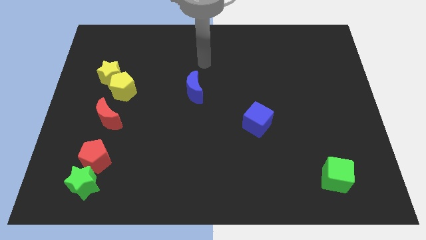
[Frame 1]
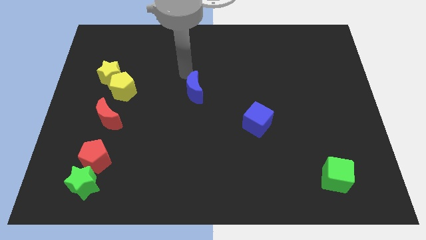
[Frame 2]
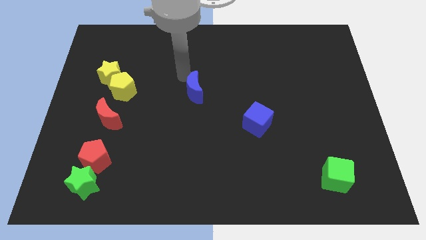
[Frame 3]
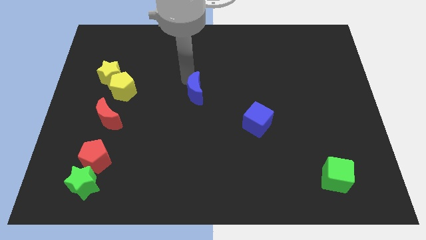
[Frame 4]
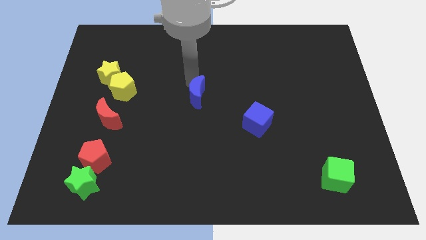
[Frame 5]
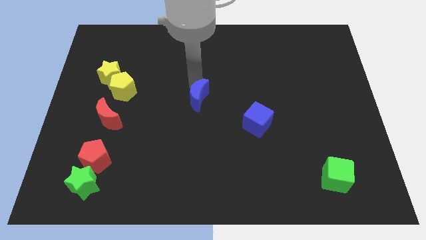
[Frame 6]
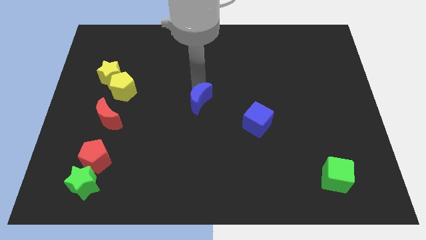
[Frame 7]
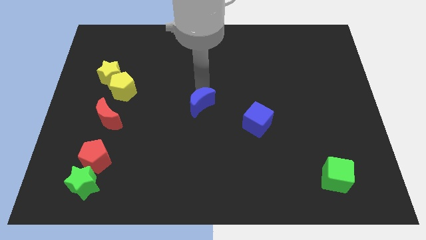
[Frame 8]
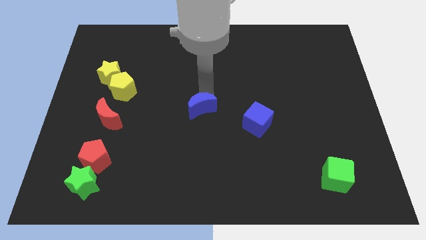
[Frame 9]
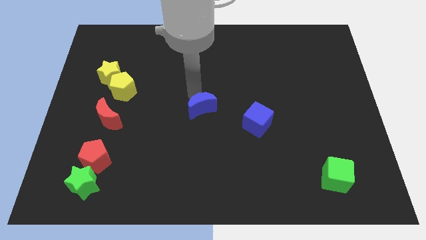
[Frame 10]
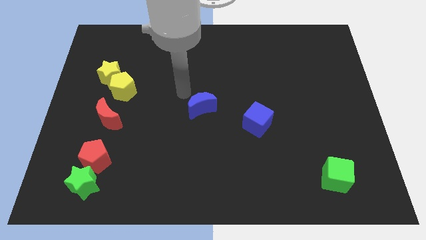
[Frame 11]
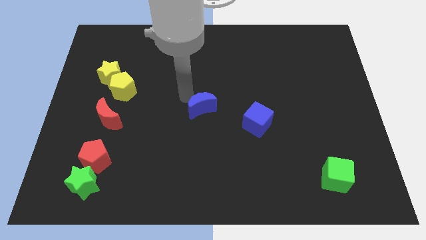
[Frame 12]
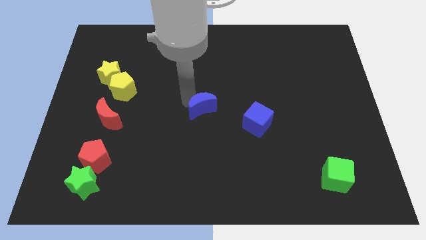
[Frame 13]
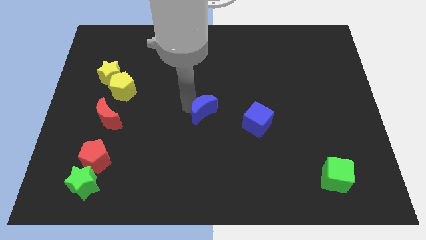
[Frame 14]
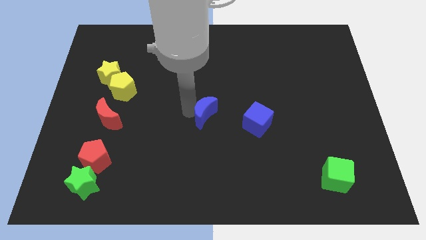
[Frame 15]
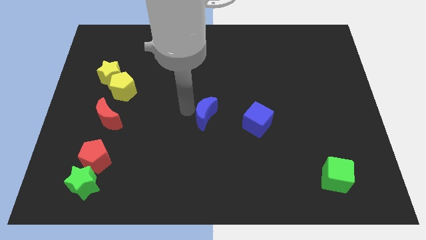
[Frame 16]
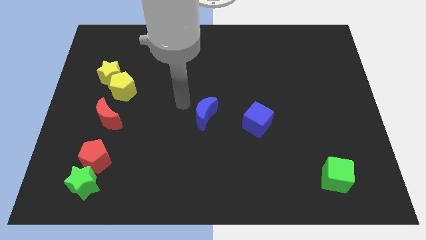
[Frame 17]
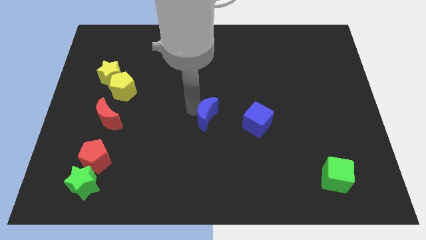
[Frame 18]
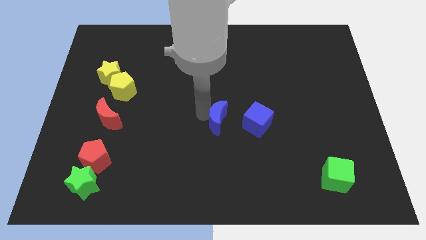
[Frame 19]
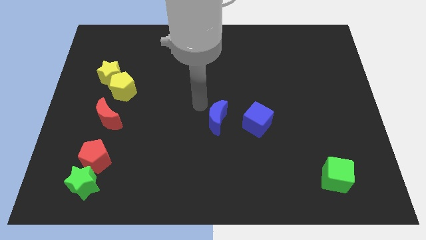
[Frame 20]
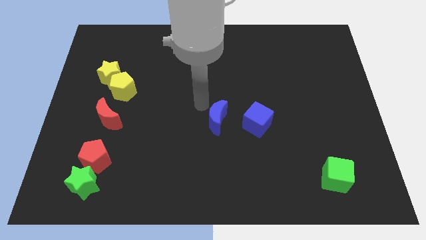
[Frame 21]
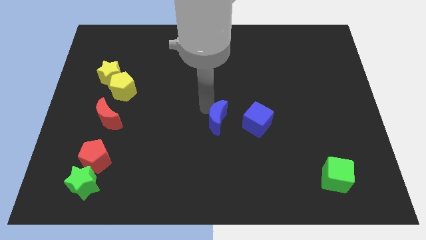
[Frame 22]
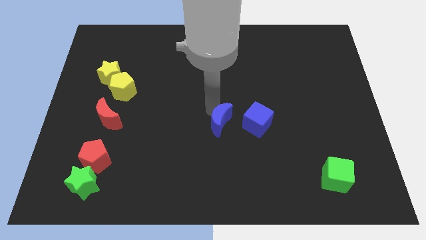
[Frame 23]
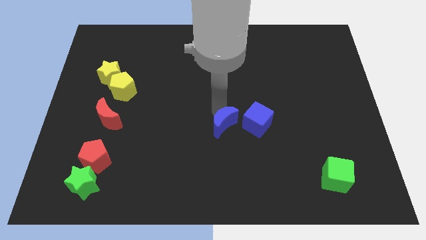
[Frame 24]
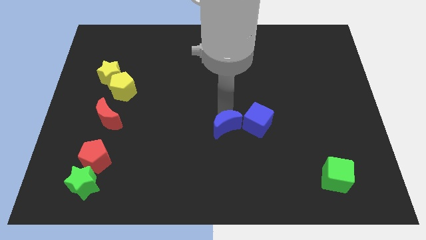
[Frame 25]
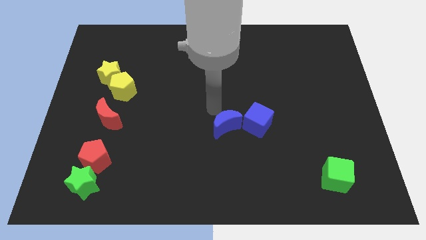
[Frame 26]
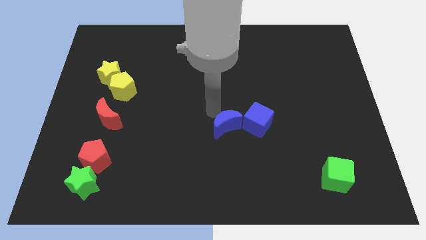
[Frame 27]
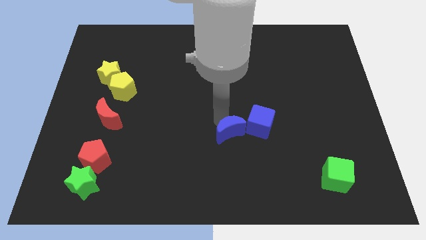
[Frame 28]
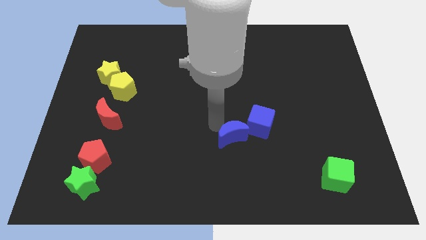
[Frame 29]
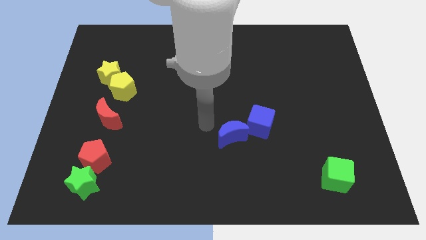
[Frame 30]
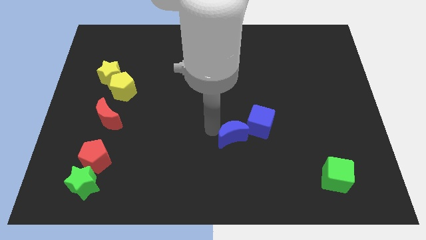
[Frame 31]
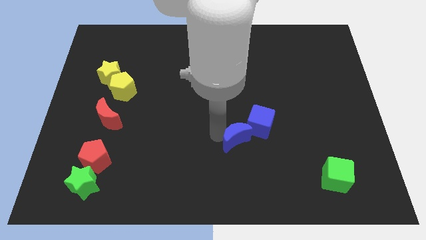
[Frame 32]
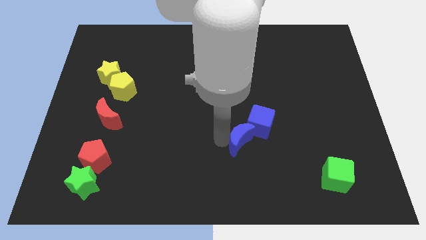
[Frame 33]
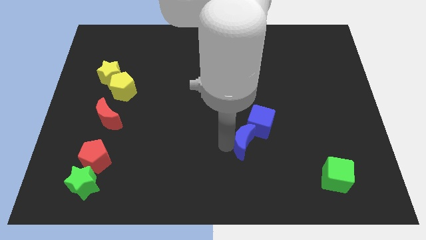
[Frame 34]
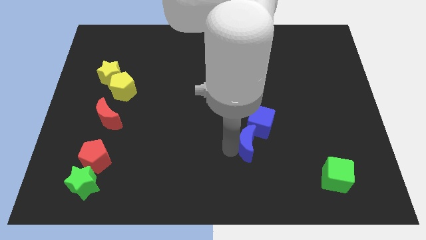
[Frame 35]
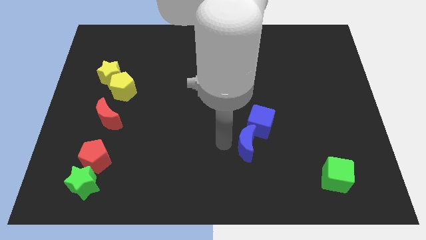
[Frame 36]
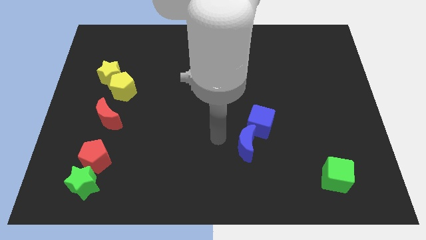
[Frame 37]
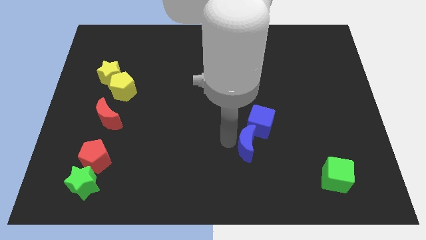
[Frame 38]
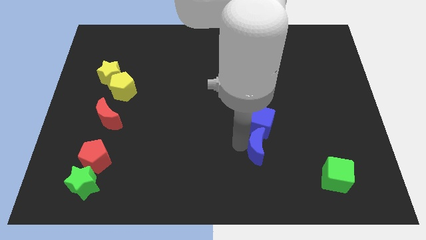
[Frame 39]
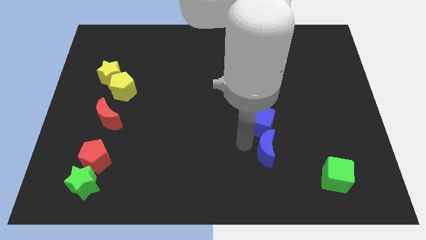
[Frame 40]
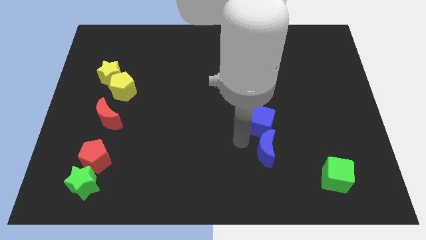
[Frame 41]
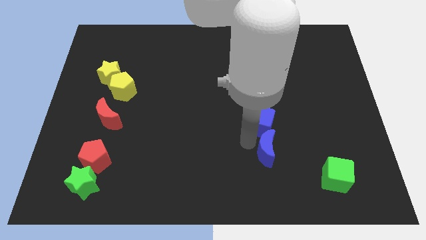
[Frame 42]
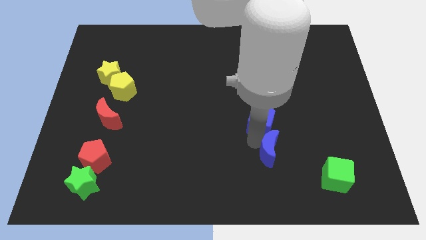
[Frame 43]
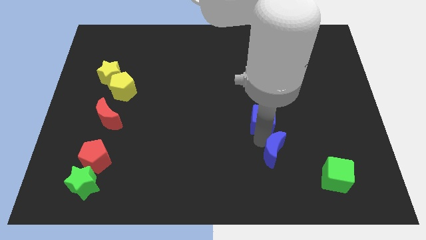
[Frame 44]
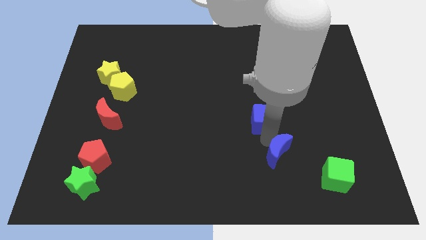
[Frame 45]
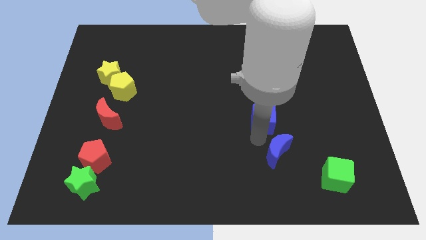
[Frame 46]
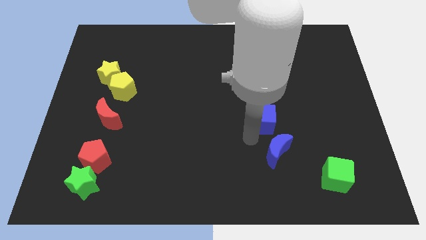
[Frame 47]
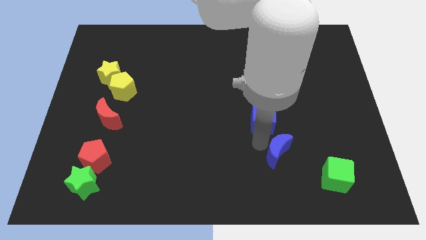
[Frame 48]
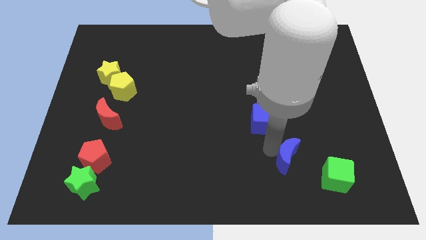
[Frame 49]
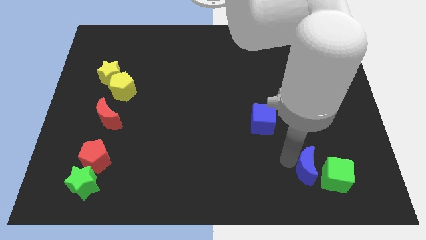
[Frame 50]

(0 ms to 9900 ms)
push the blue moon towards the green cube

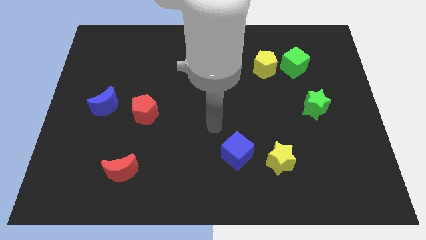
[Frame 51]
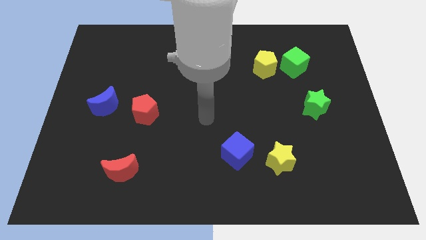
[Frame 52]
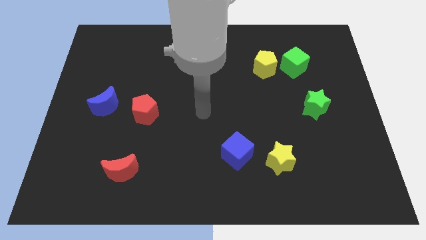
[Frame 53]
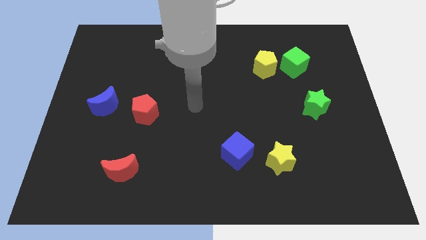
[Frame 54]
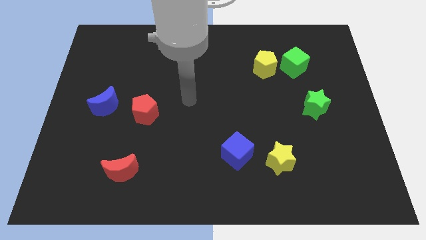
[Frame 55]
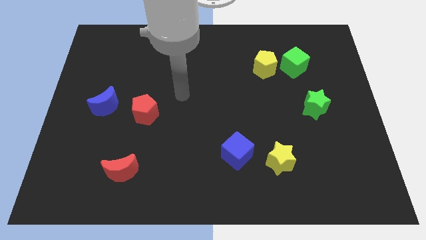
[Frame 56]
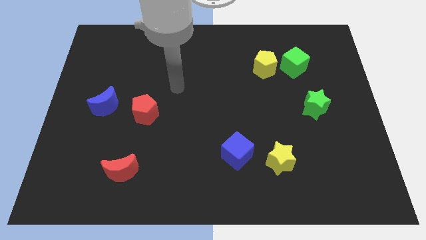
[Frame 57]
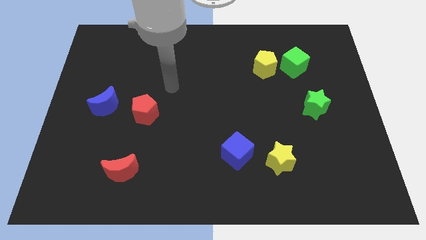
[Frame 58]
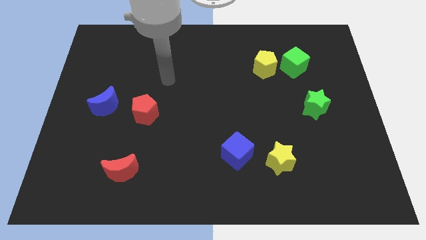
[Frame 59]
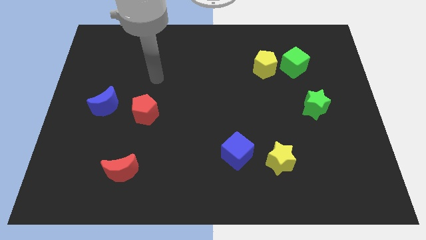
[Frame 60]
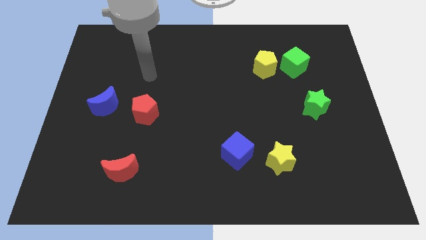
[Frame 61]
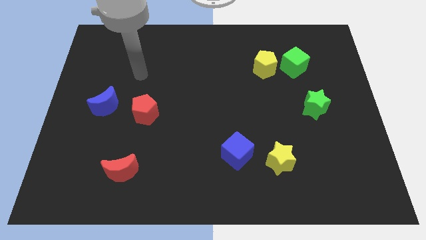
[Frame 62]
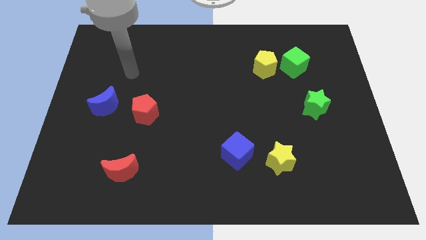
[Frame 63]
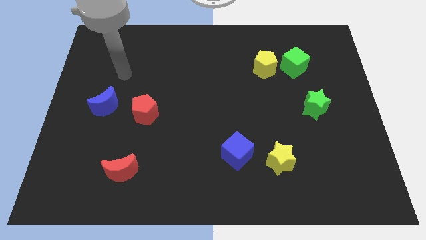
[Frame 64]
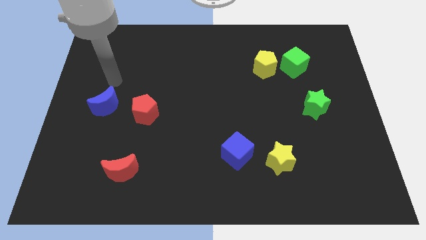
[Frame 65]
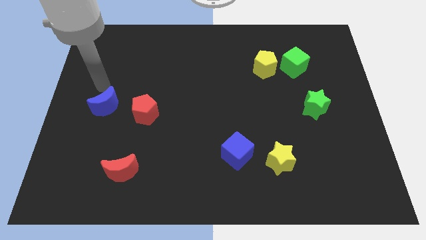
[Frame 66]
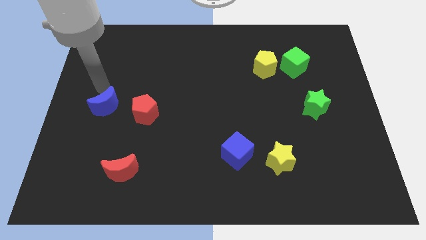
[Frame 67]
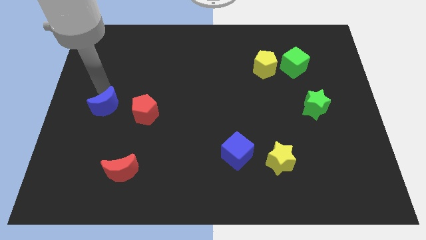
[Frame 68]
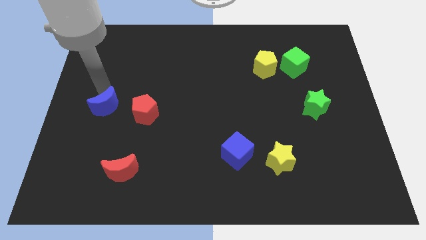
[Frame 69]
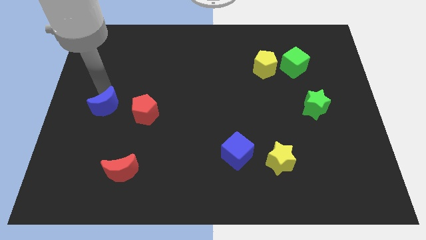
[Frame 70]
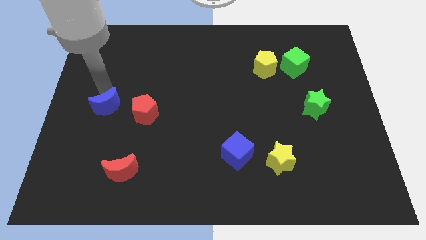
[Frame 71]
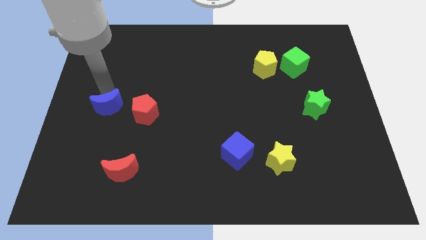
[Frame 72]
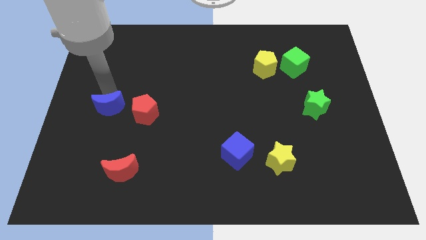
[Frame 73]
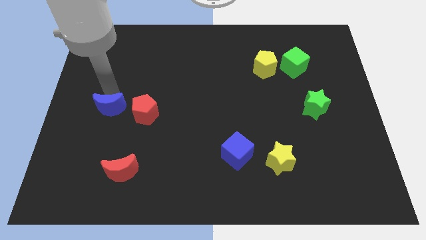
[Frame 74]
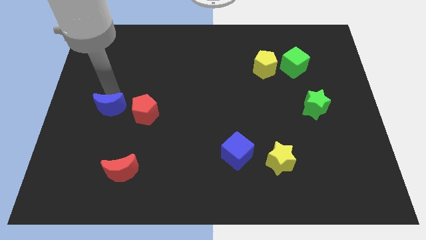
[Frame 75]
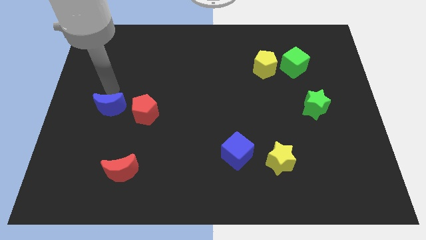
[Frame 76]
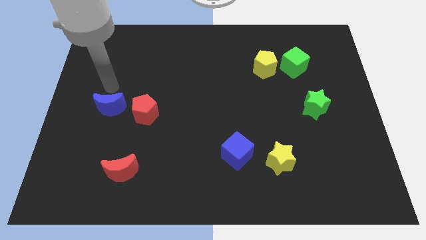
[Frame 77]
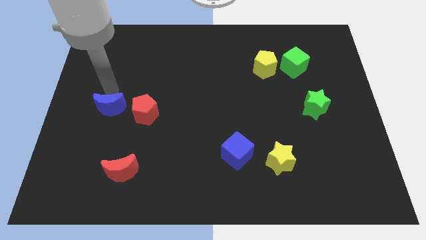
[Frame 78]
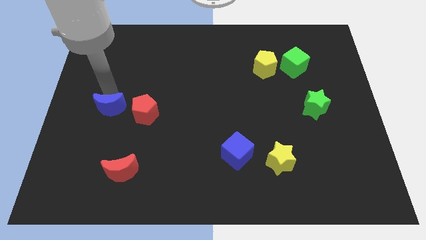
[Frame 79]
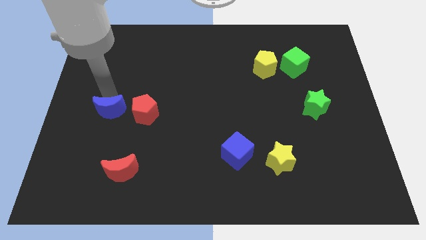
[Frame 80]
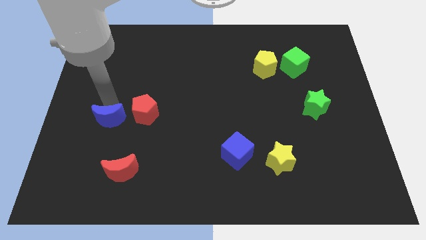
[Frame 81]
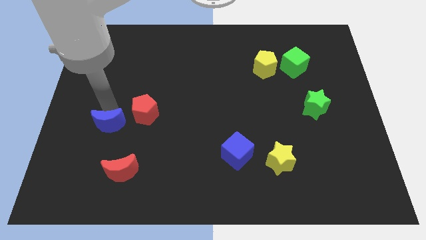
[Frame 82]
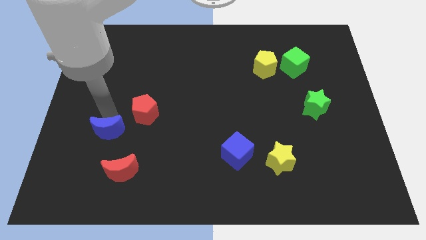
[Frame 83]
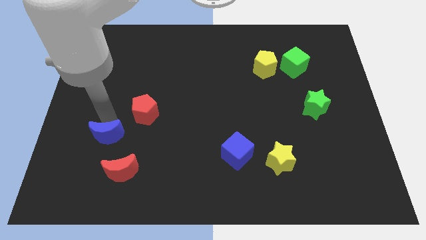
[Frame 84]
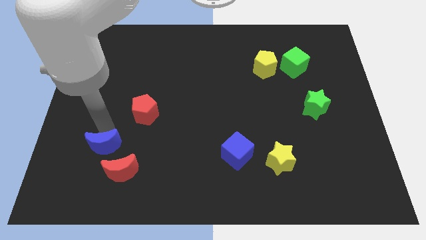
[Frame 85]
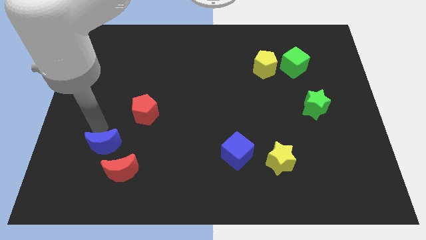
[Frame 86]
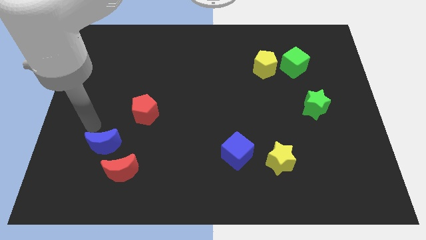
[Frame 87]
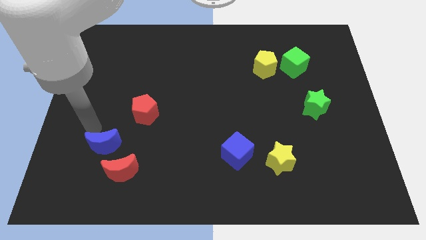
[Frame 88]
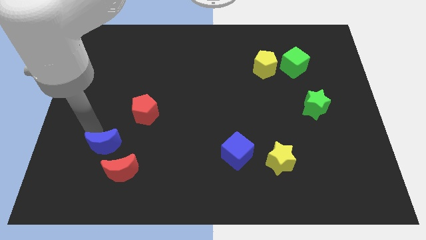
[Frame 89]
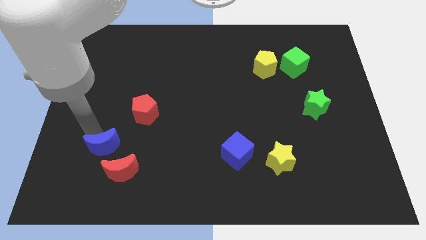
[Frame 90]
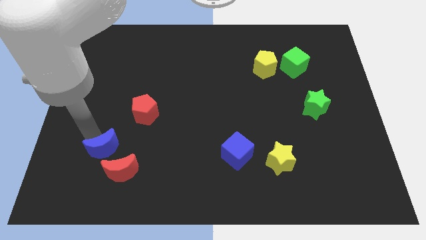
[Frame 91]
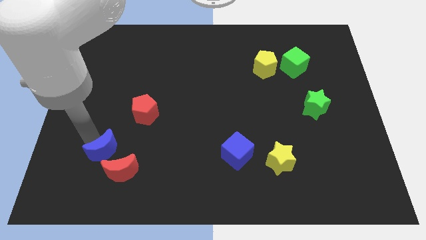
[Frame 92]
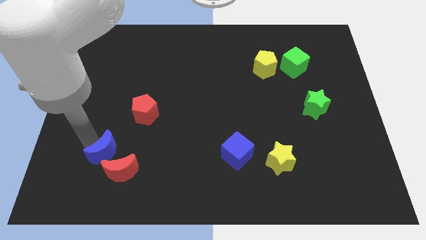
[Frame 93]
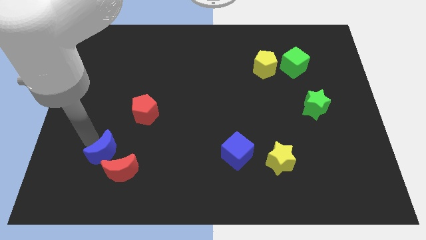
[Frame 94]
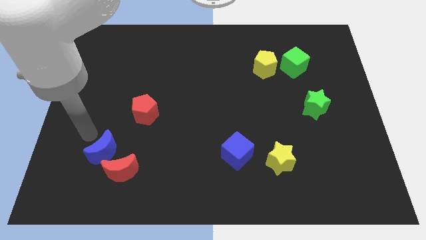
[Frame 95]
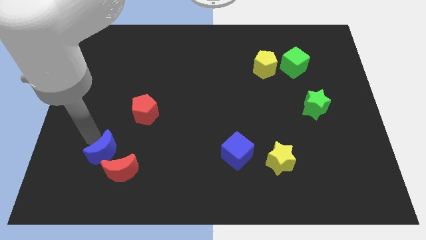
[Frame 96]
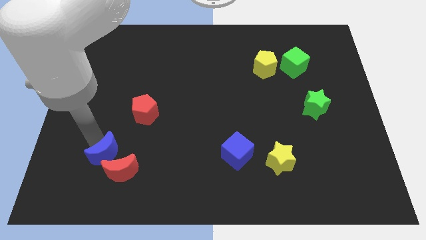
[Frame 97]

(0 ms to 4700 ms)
move the blue moon towards the red moon
